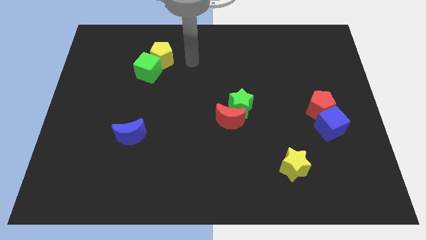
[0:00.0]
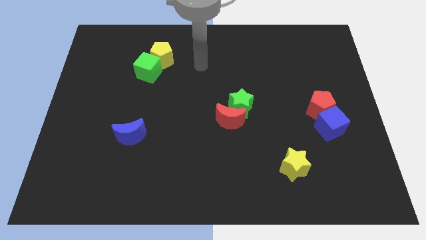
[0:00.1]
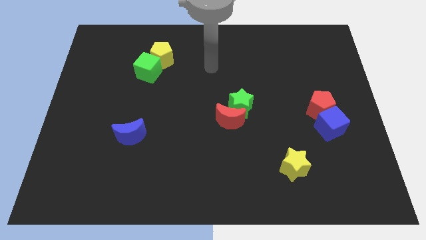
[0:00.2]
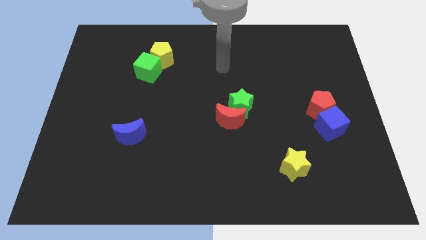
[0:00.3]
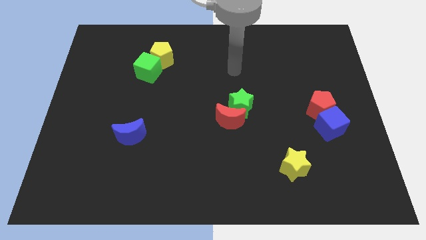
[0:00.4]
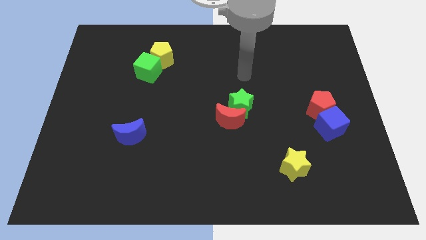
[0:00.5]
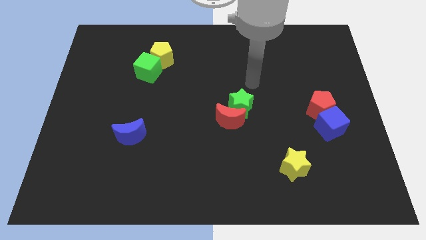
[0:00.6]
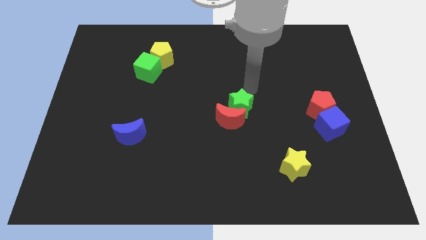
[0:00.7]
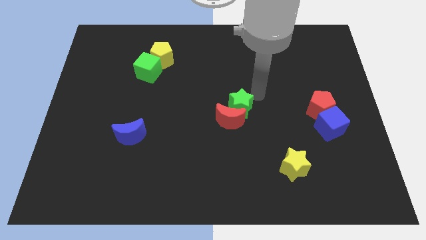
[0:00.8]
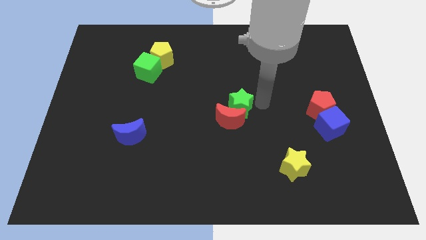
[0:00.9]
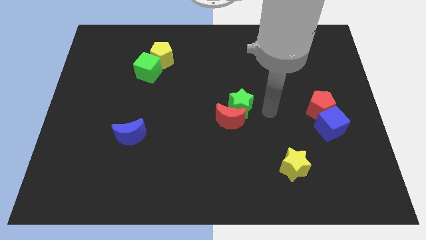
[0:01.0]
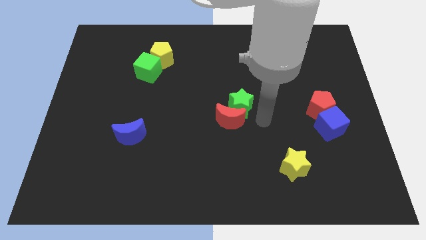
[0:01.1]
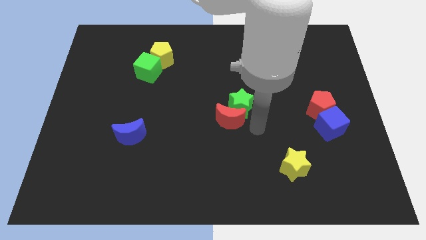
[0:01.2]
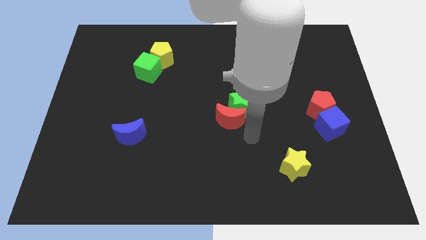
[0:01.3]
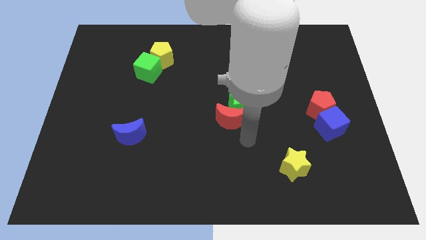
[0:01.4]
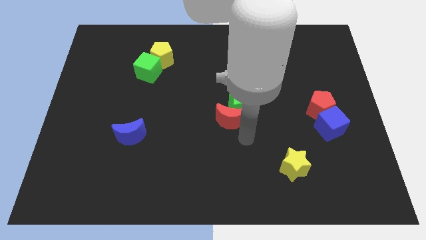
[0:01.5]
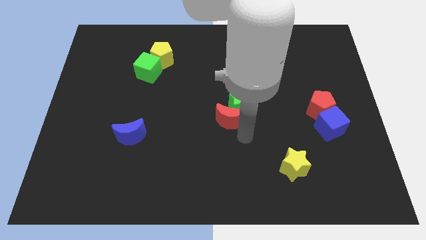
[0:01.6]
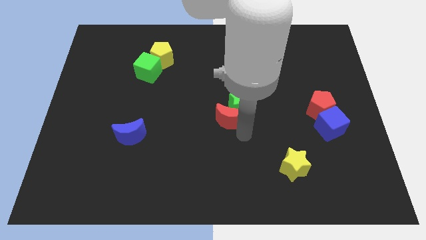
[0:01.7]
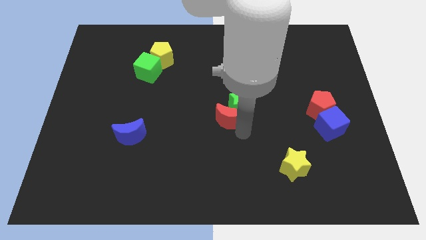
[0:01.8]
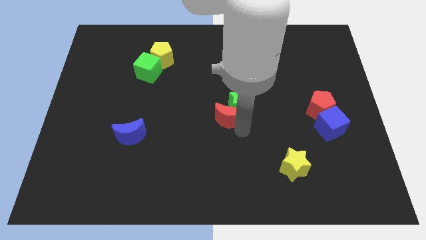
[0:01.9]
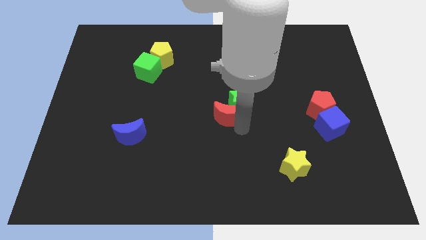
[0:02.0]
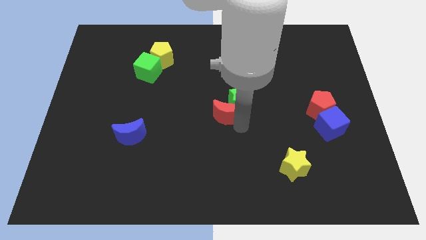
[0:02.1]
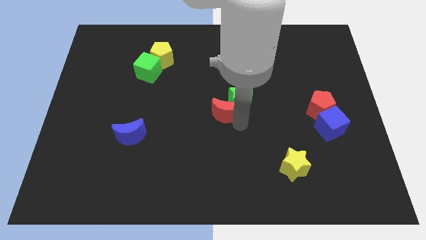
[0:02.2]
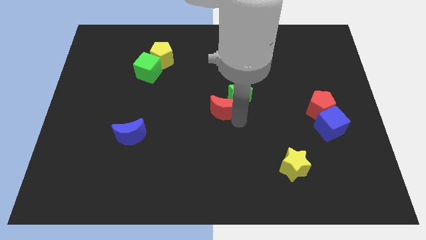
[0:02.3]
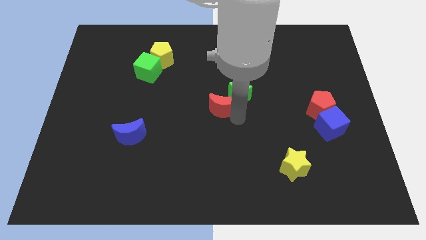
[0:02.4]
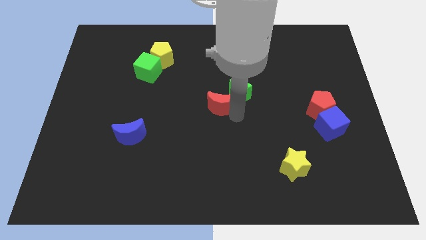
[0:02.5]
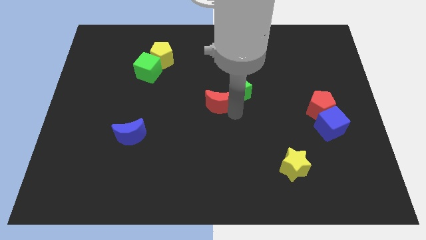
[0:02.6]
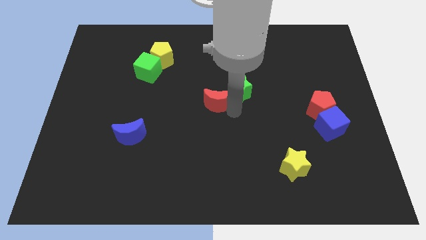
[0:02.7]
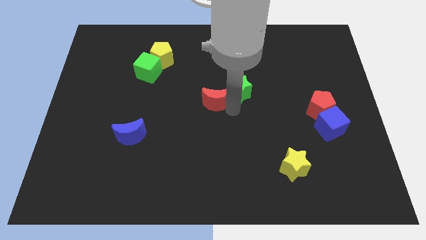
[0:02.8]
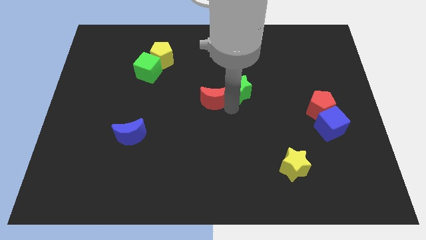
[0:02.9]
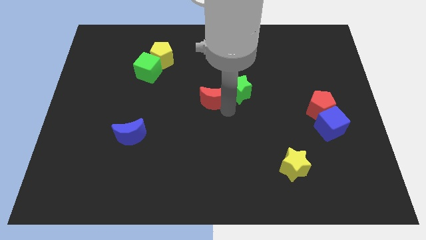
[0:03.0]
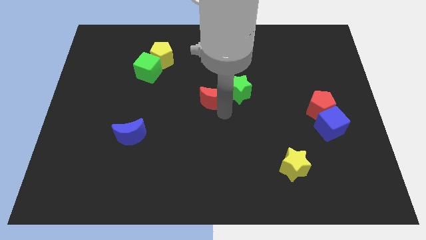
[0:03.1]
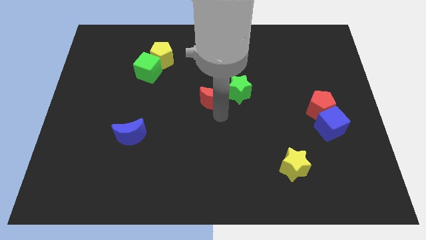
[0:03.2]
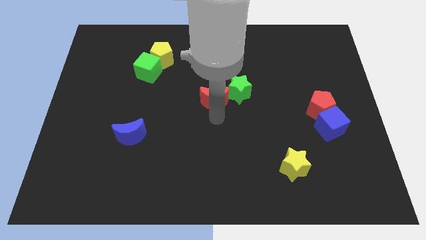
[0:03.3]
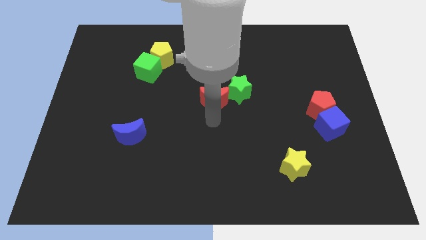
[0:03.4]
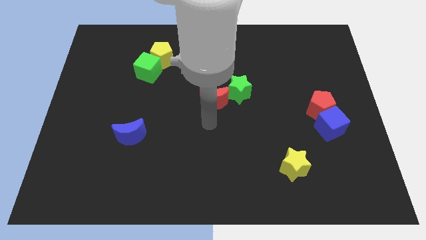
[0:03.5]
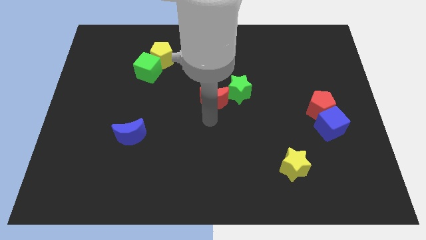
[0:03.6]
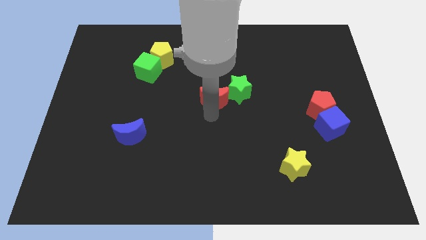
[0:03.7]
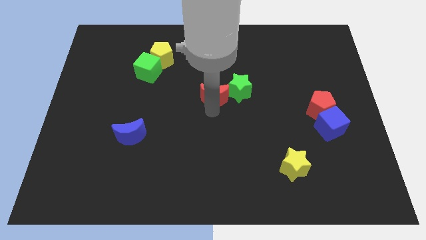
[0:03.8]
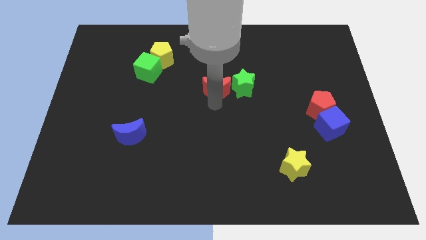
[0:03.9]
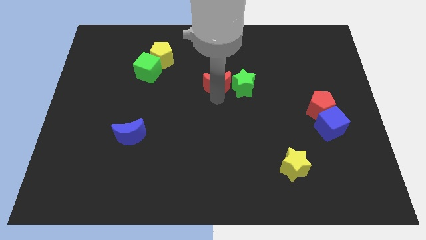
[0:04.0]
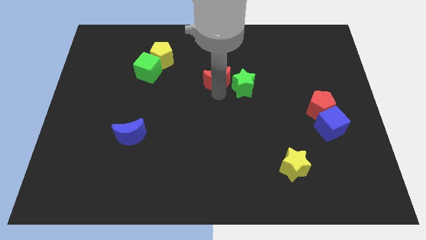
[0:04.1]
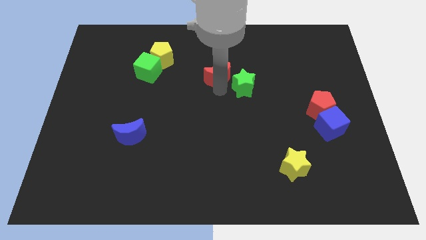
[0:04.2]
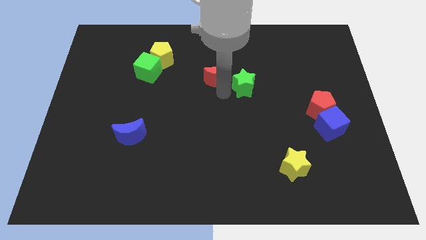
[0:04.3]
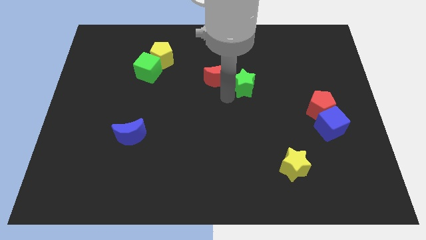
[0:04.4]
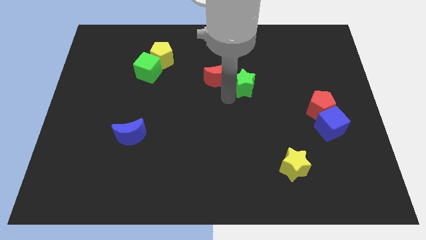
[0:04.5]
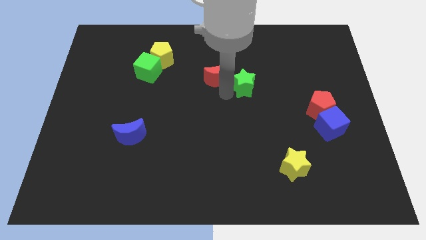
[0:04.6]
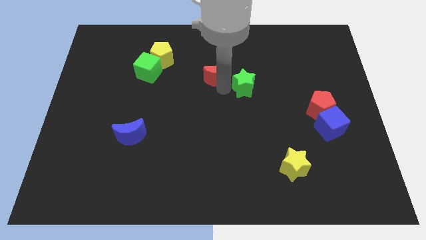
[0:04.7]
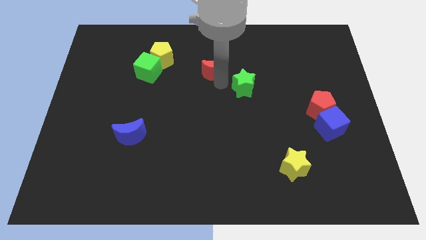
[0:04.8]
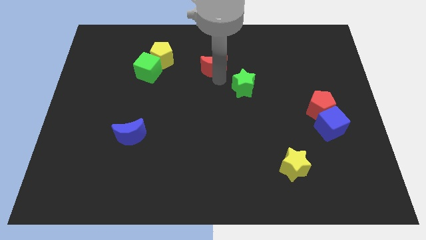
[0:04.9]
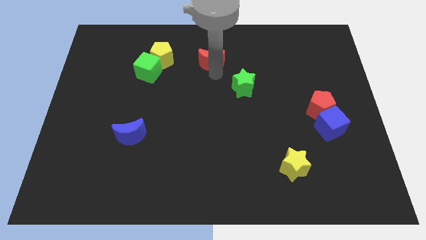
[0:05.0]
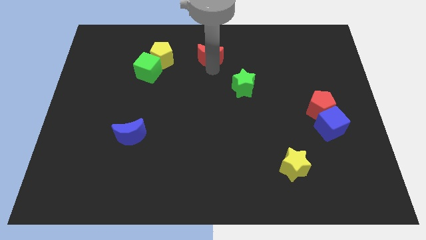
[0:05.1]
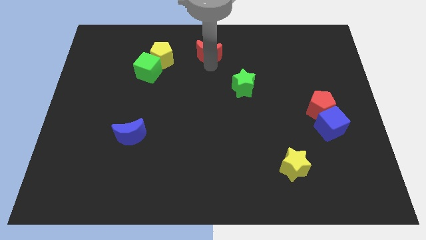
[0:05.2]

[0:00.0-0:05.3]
put the red moon to the top

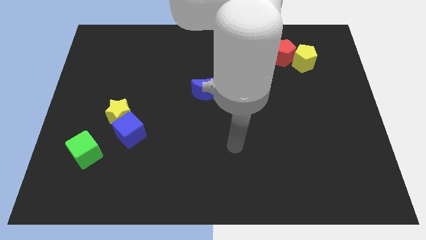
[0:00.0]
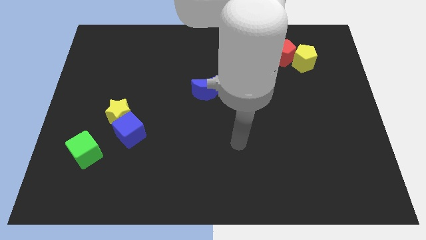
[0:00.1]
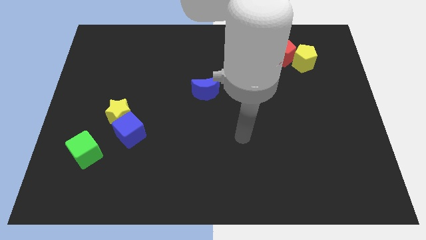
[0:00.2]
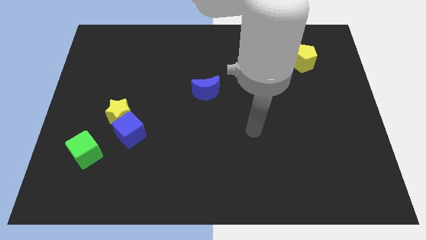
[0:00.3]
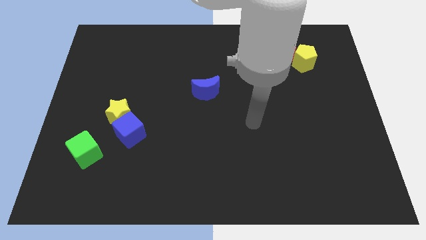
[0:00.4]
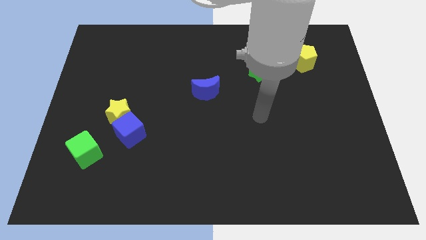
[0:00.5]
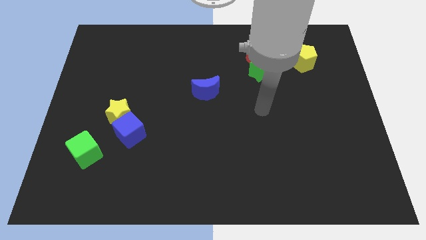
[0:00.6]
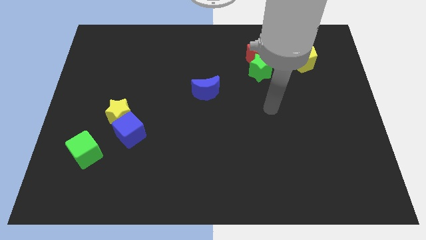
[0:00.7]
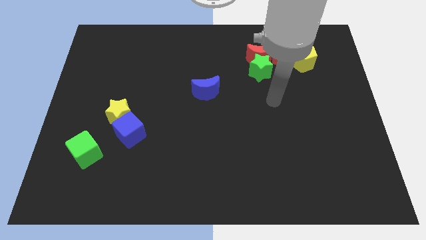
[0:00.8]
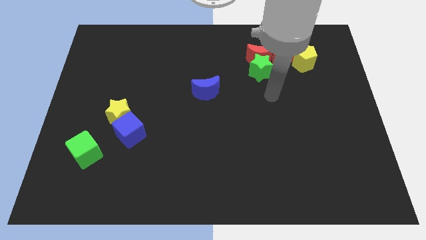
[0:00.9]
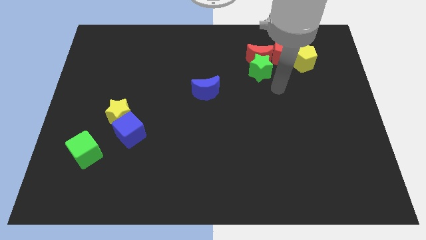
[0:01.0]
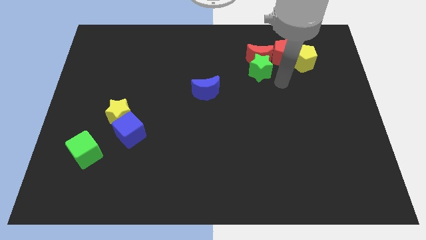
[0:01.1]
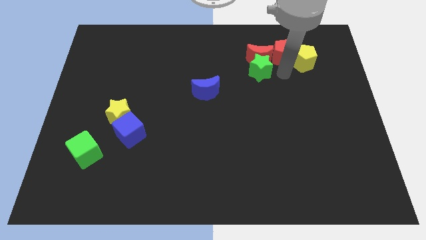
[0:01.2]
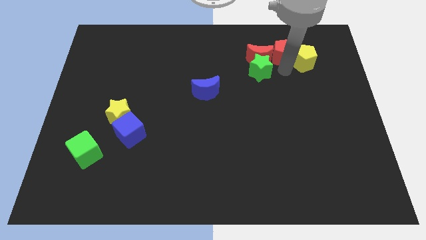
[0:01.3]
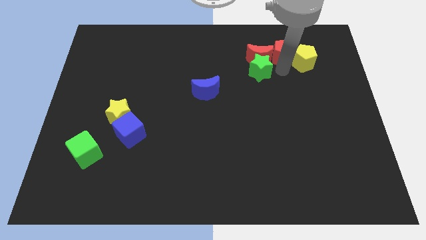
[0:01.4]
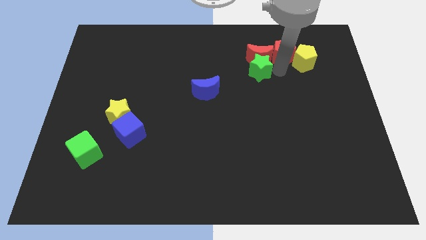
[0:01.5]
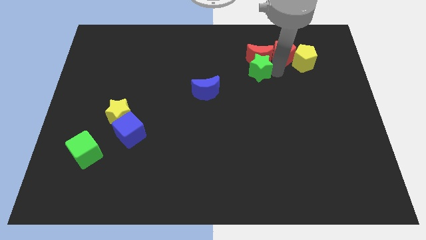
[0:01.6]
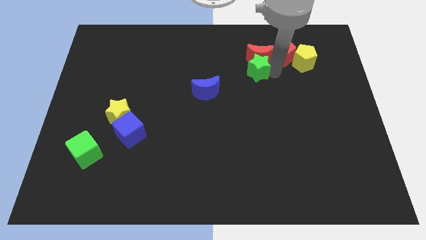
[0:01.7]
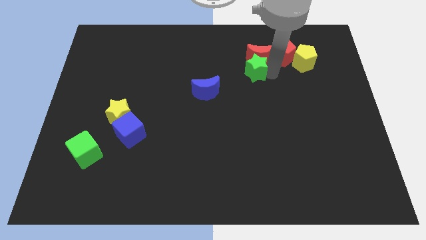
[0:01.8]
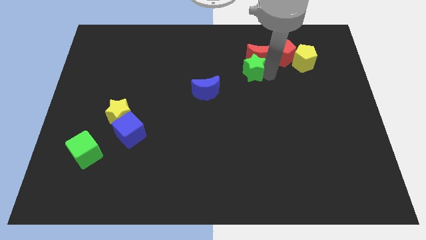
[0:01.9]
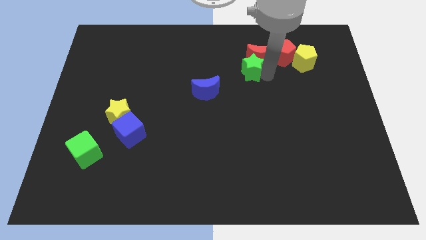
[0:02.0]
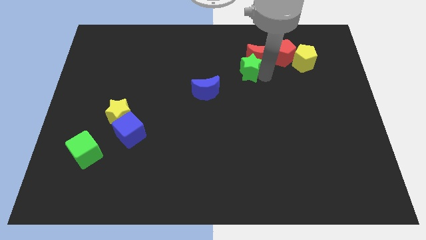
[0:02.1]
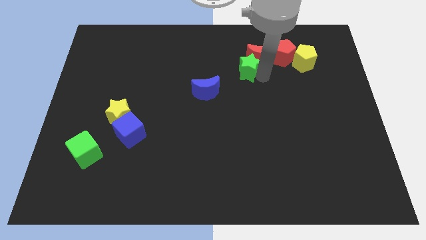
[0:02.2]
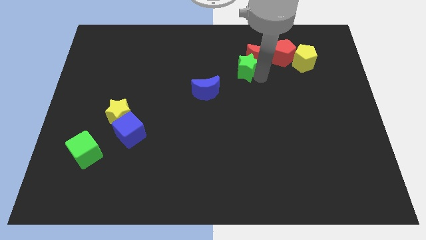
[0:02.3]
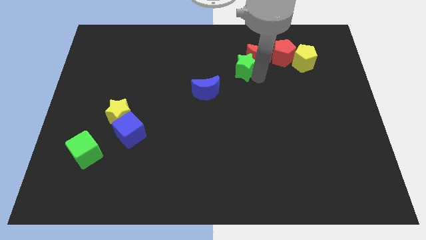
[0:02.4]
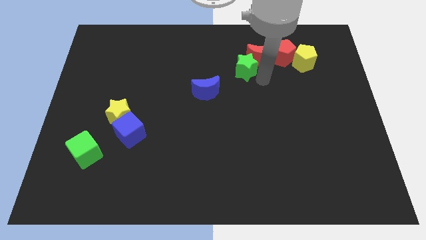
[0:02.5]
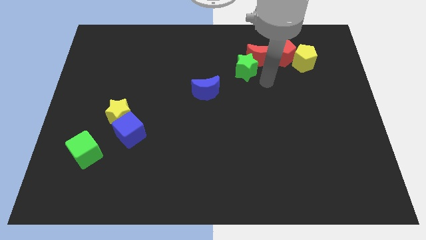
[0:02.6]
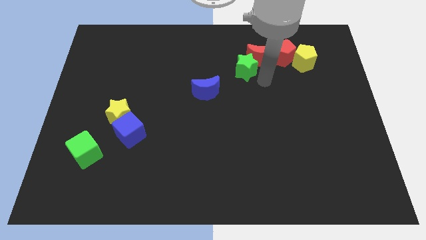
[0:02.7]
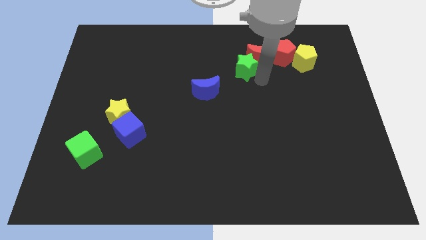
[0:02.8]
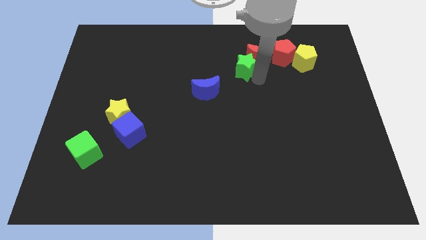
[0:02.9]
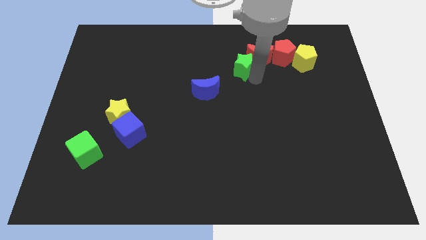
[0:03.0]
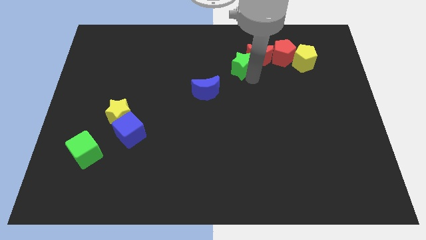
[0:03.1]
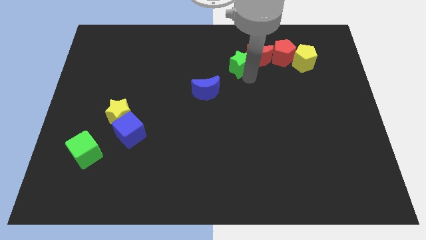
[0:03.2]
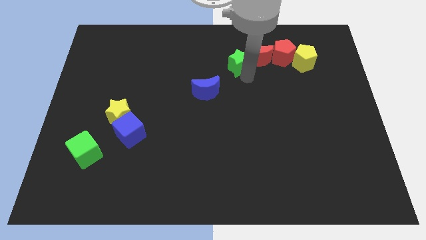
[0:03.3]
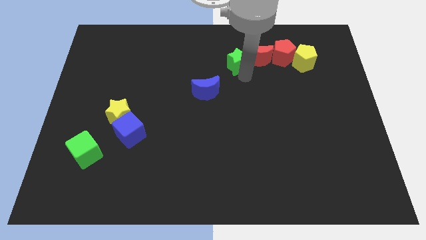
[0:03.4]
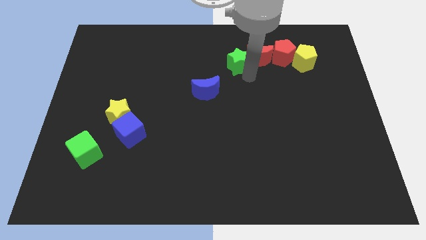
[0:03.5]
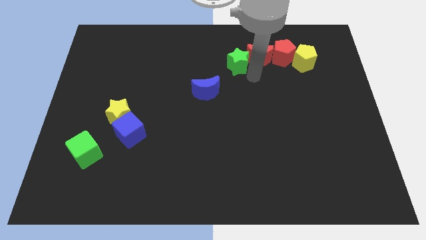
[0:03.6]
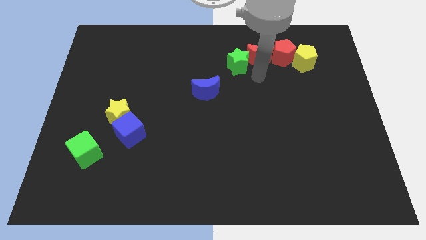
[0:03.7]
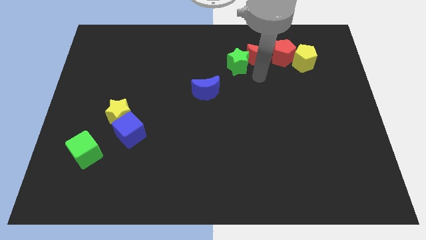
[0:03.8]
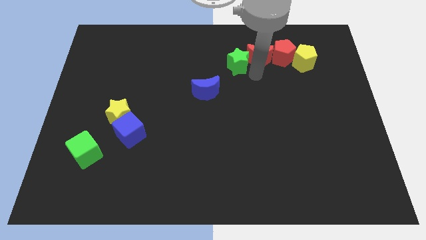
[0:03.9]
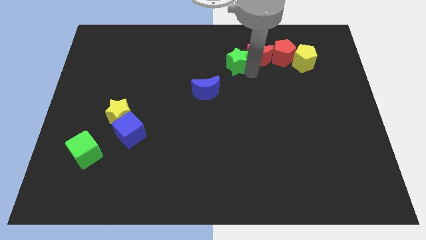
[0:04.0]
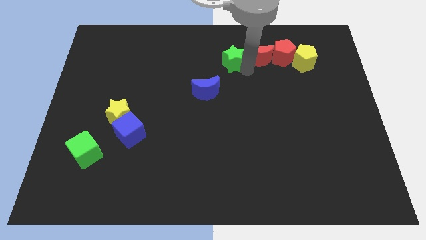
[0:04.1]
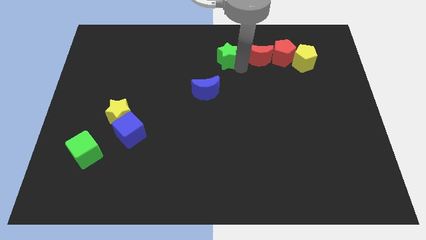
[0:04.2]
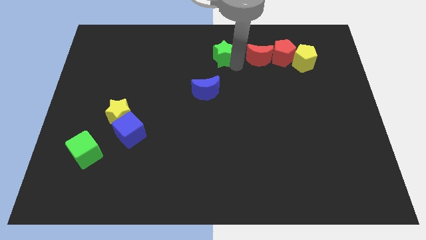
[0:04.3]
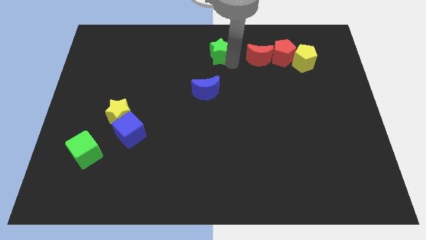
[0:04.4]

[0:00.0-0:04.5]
move the green star to the top
